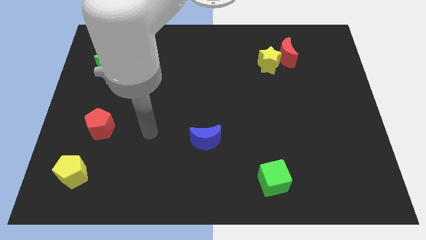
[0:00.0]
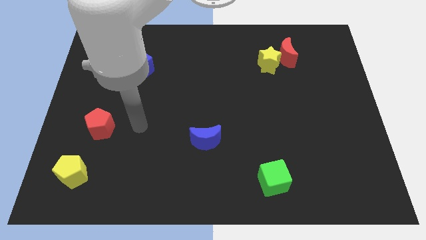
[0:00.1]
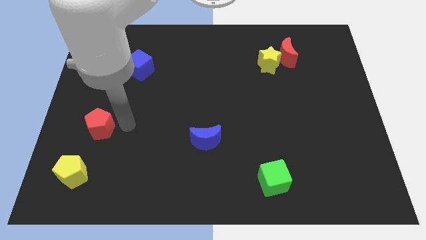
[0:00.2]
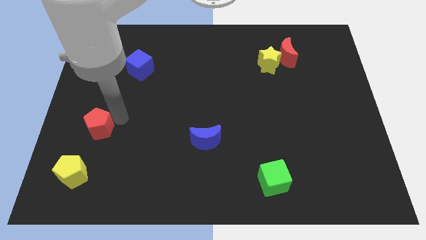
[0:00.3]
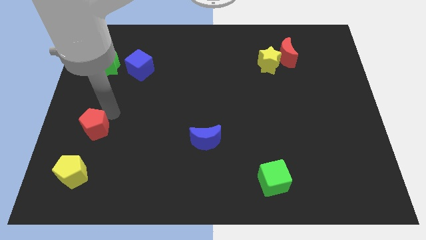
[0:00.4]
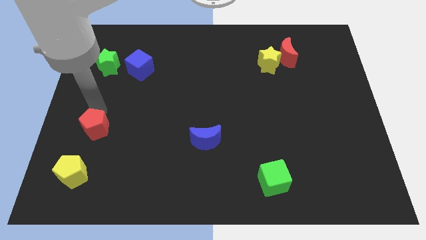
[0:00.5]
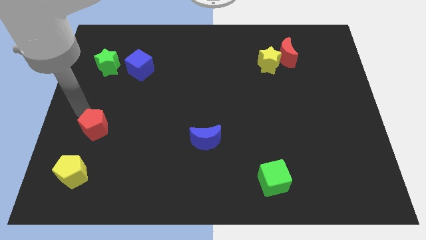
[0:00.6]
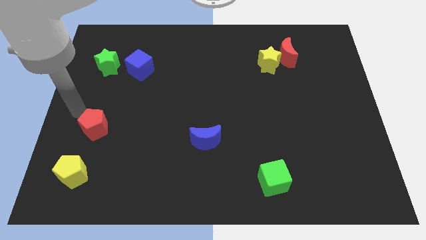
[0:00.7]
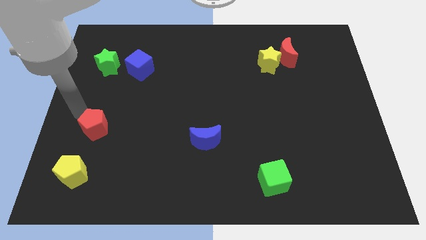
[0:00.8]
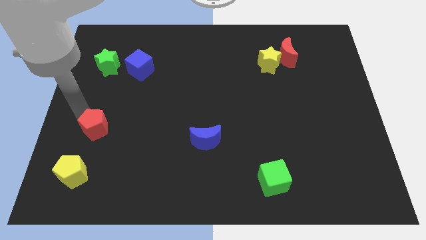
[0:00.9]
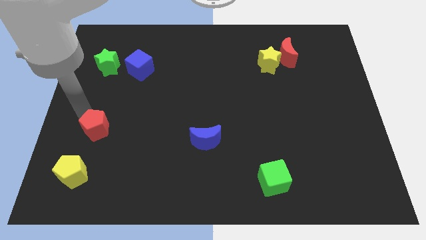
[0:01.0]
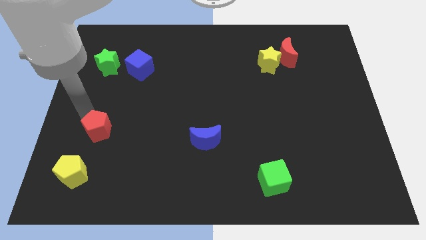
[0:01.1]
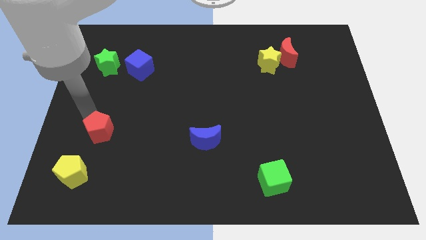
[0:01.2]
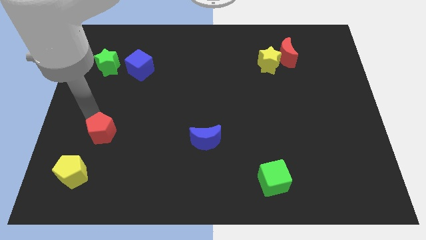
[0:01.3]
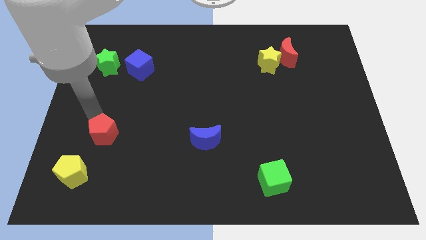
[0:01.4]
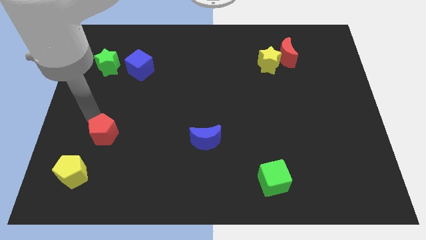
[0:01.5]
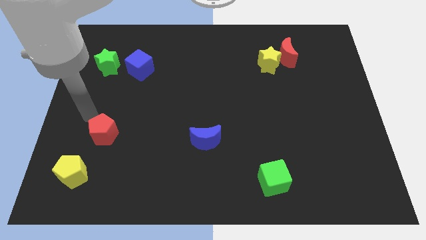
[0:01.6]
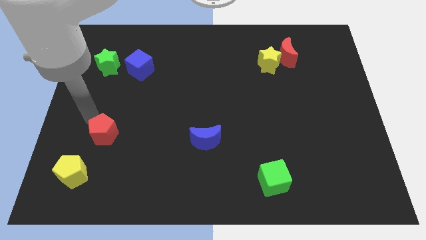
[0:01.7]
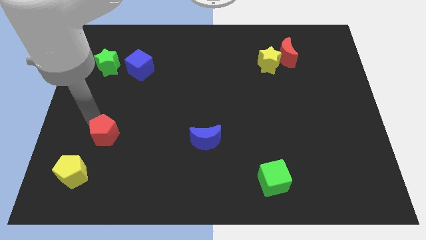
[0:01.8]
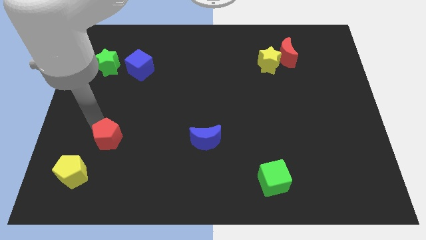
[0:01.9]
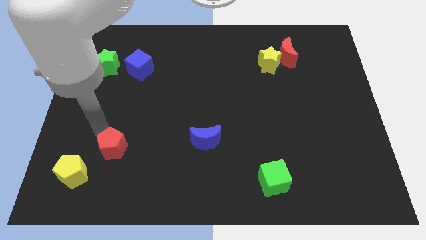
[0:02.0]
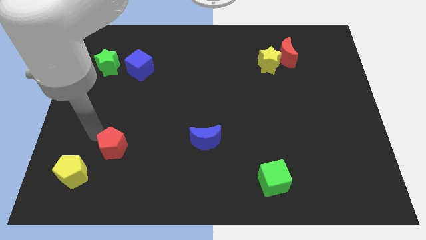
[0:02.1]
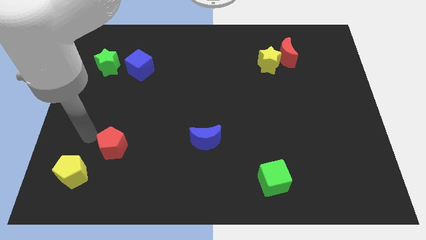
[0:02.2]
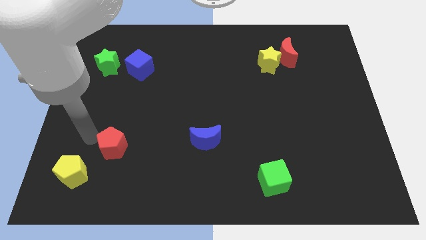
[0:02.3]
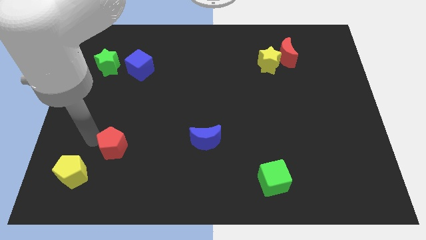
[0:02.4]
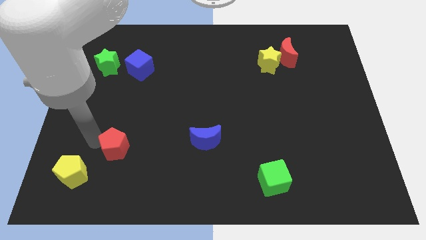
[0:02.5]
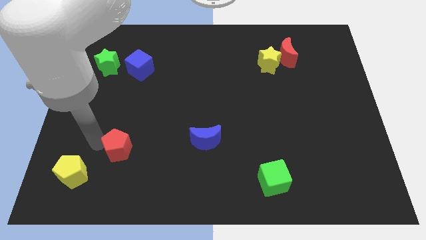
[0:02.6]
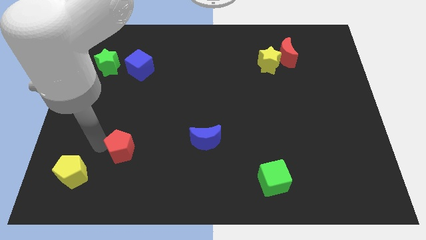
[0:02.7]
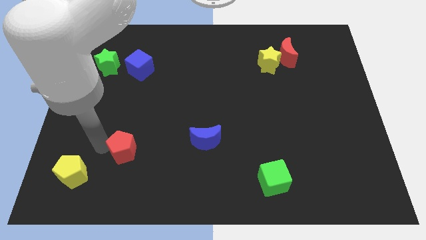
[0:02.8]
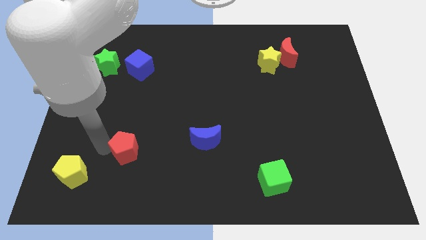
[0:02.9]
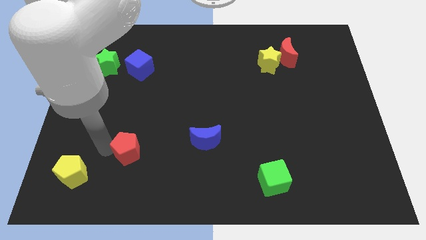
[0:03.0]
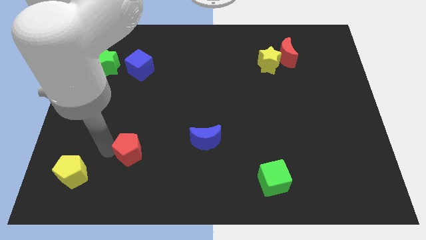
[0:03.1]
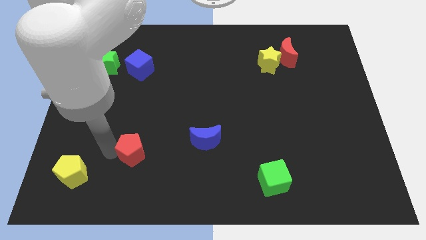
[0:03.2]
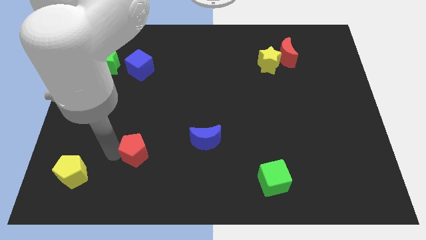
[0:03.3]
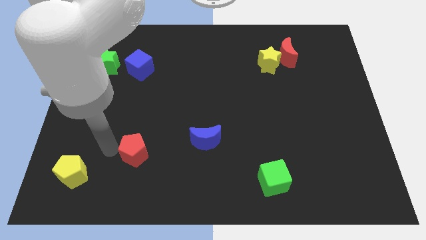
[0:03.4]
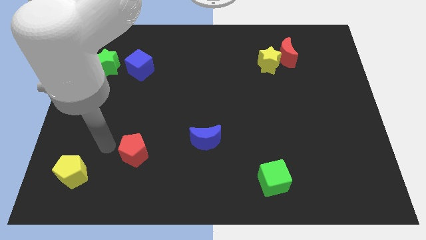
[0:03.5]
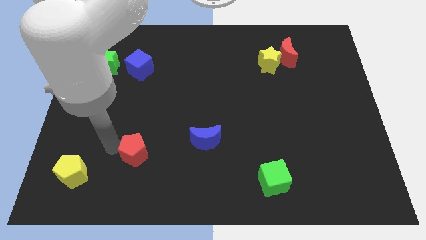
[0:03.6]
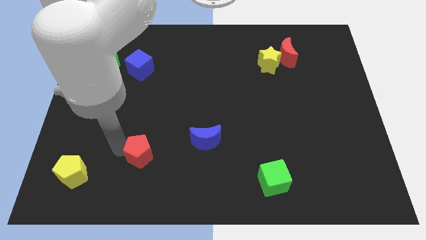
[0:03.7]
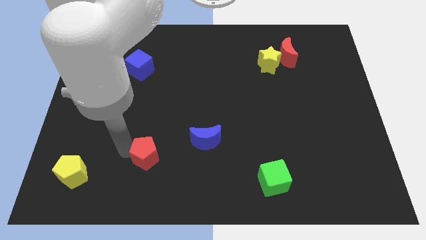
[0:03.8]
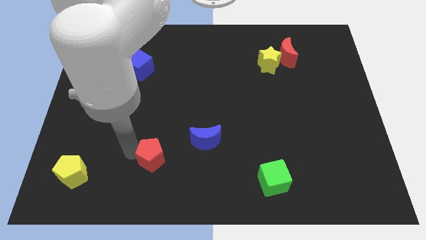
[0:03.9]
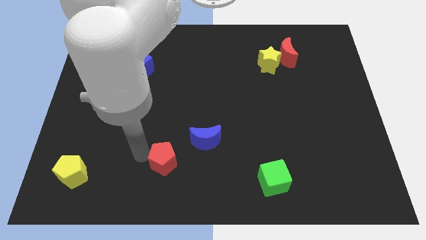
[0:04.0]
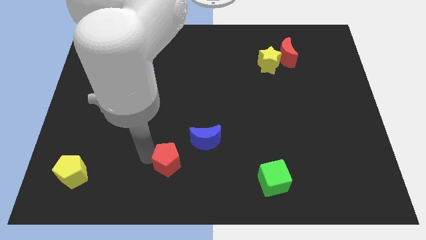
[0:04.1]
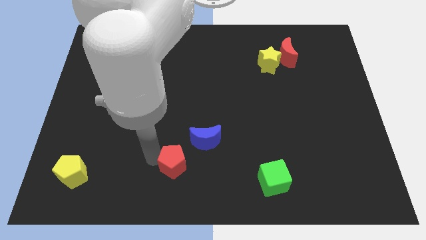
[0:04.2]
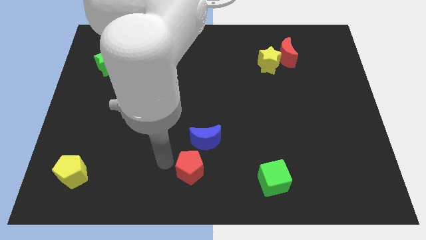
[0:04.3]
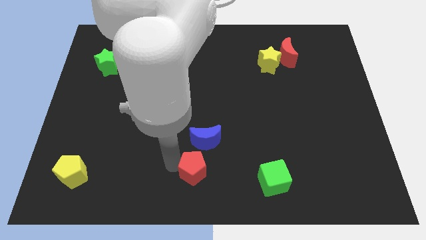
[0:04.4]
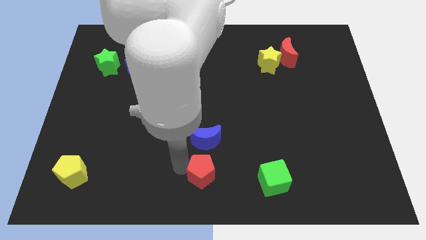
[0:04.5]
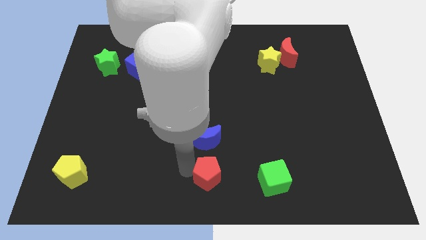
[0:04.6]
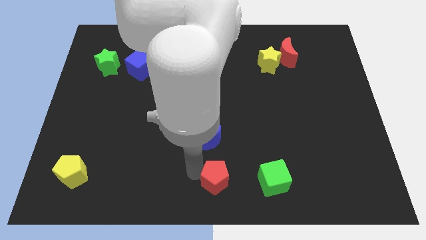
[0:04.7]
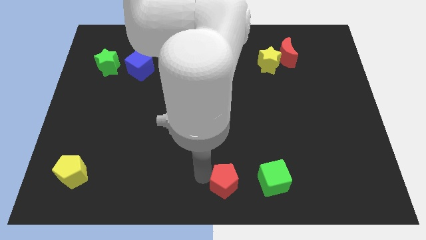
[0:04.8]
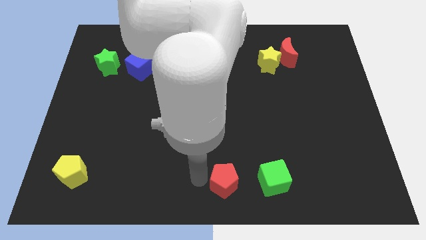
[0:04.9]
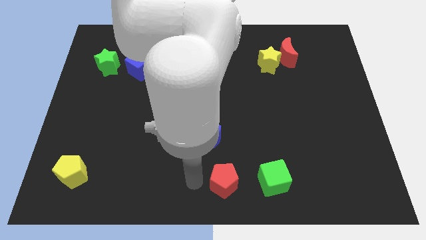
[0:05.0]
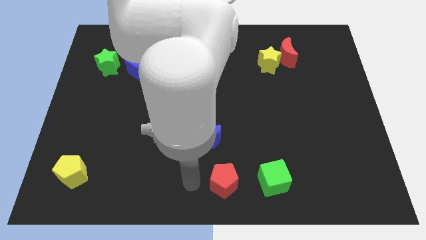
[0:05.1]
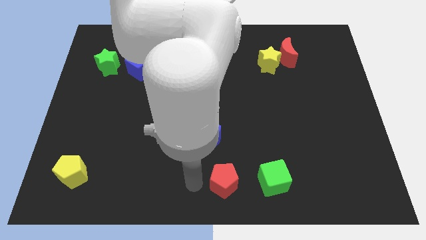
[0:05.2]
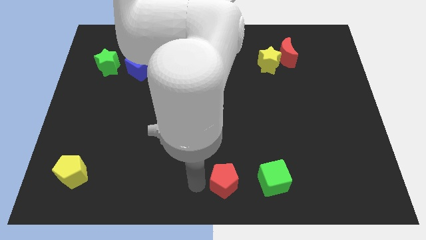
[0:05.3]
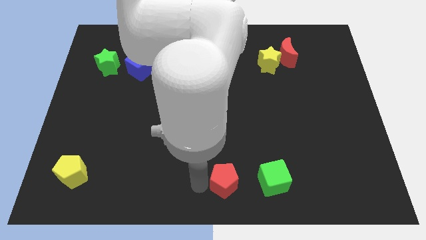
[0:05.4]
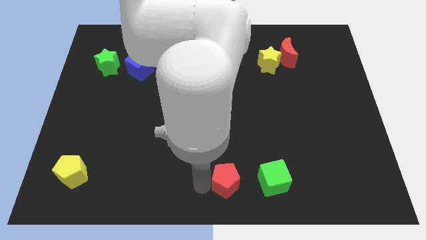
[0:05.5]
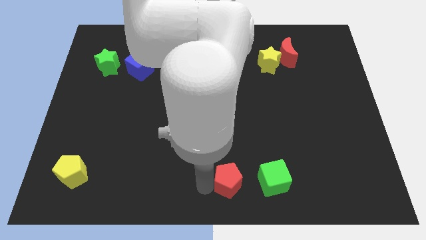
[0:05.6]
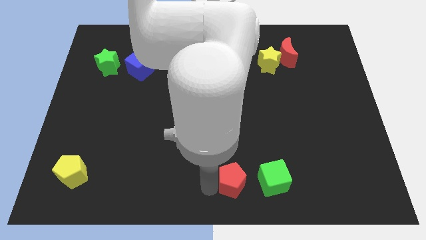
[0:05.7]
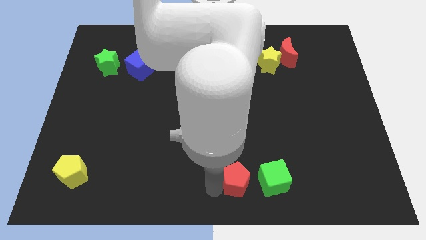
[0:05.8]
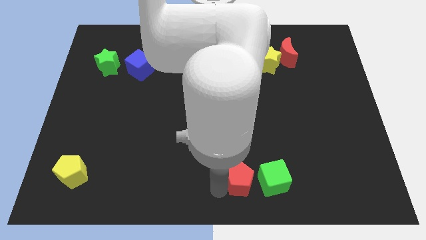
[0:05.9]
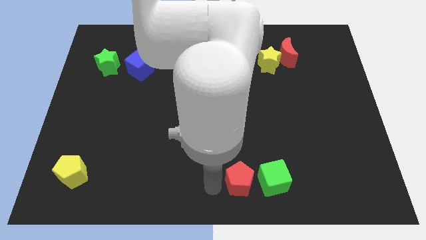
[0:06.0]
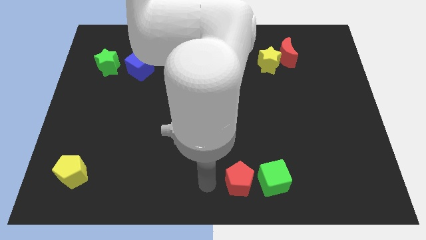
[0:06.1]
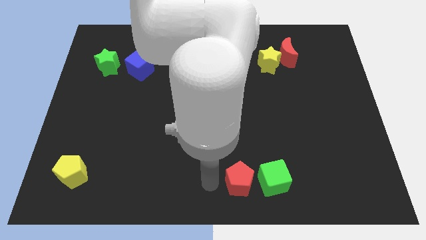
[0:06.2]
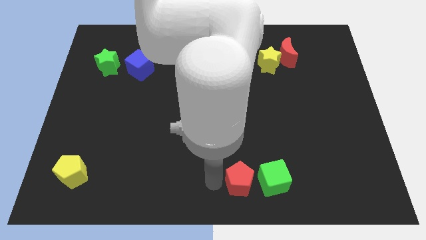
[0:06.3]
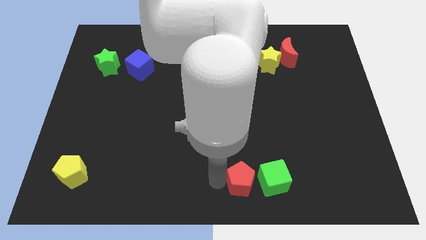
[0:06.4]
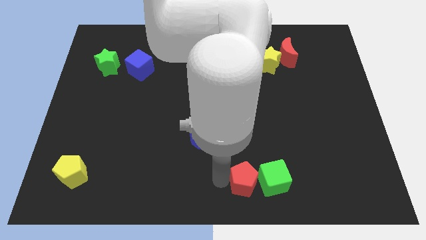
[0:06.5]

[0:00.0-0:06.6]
slide the red pentagon to the green cube

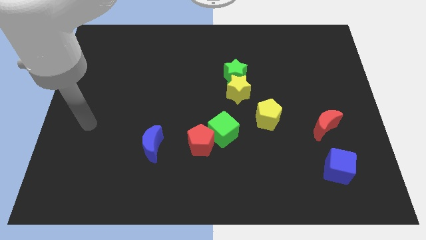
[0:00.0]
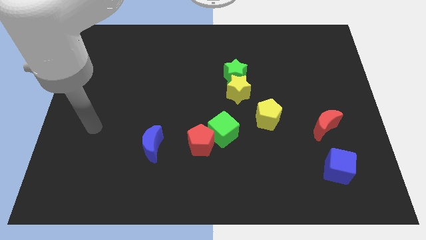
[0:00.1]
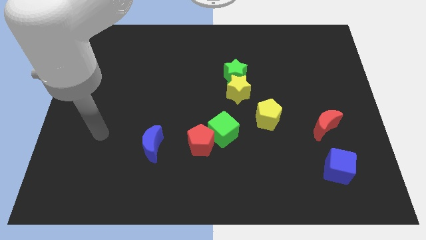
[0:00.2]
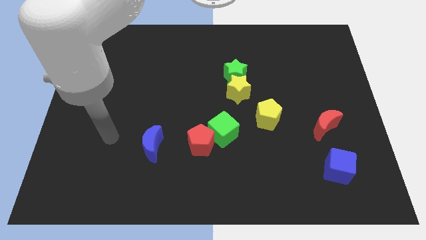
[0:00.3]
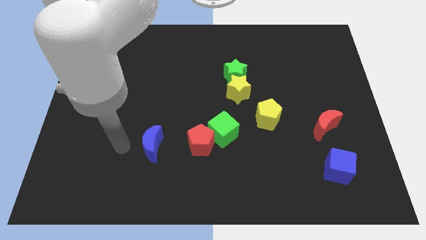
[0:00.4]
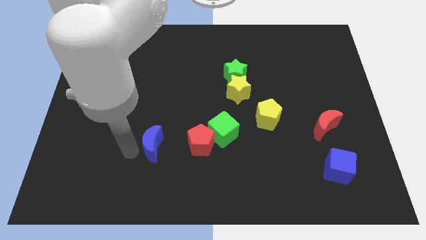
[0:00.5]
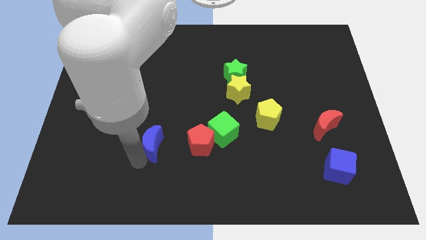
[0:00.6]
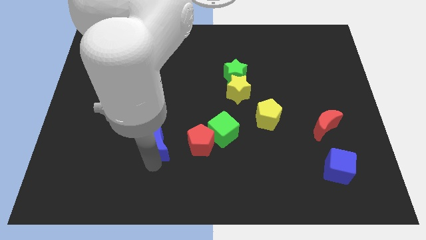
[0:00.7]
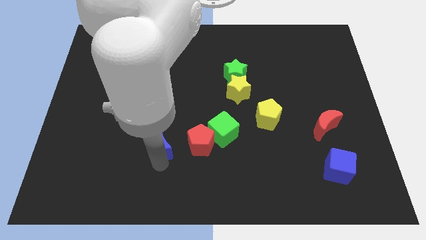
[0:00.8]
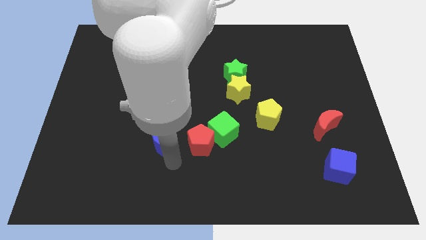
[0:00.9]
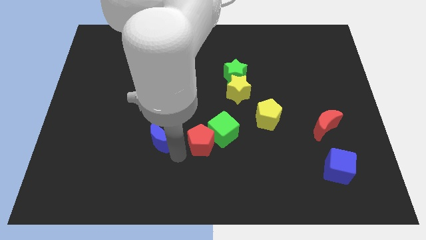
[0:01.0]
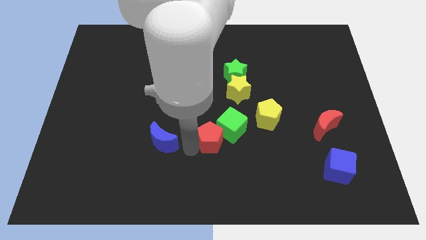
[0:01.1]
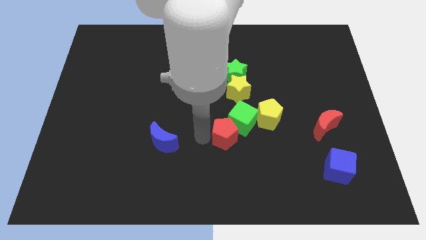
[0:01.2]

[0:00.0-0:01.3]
put the green cube next to the yellow pentagon
